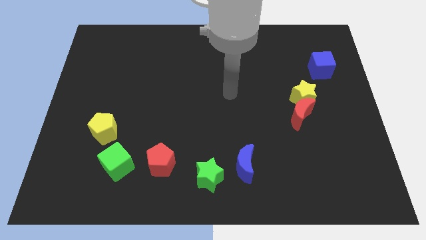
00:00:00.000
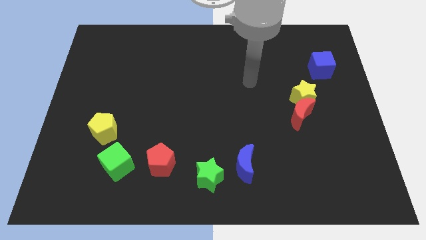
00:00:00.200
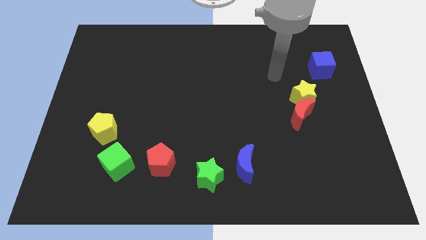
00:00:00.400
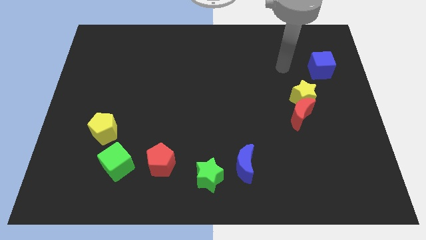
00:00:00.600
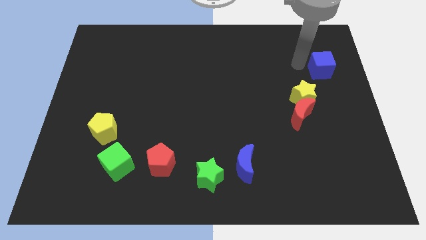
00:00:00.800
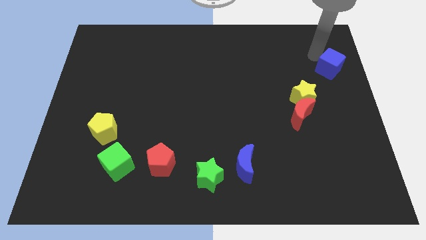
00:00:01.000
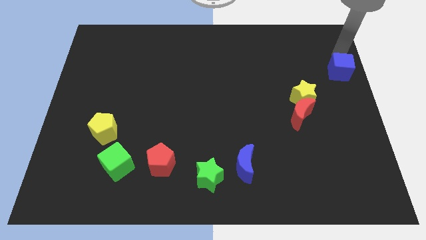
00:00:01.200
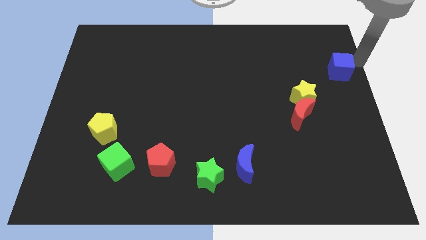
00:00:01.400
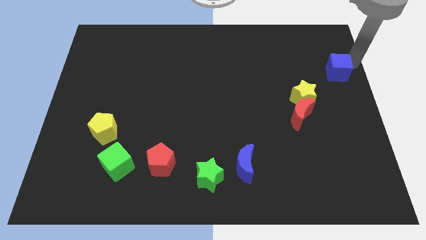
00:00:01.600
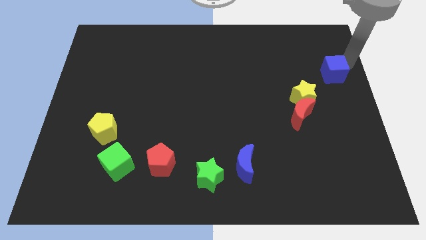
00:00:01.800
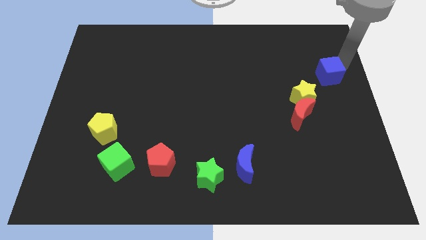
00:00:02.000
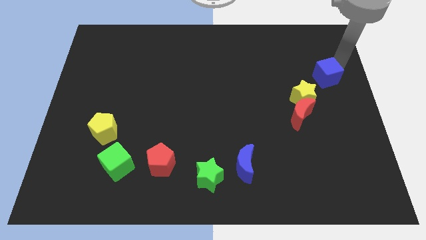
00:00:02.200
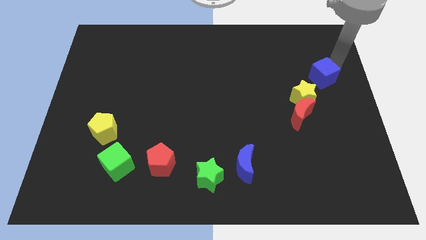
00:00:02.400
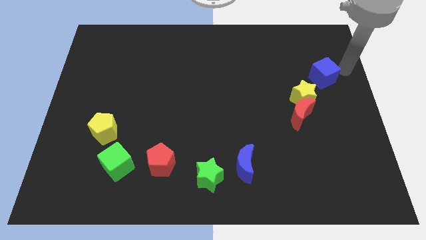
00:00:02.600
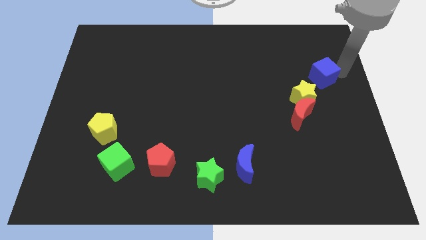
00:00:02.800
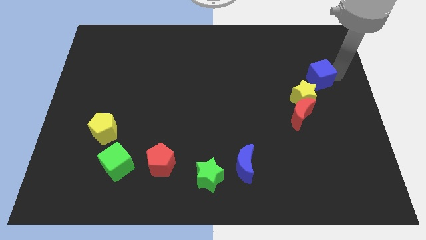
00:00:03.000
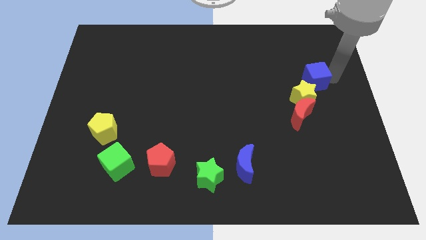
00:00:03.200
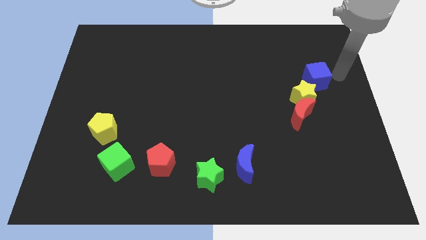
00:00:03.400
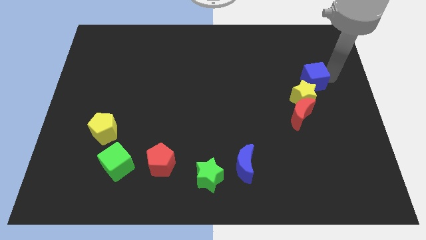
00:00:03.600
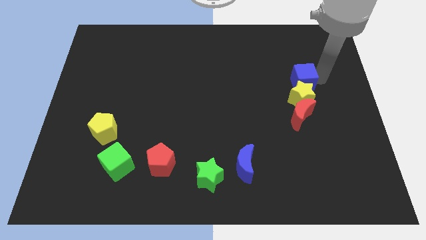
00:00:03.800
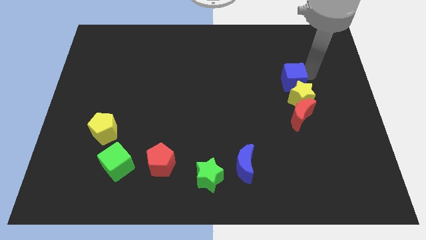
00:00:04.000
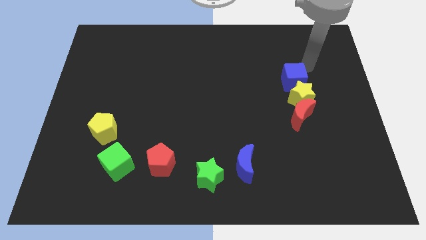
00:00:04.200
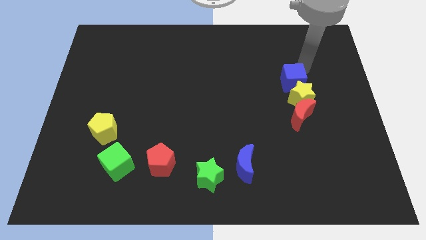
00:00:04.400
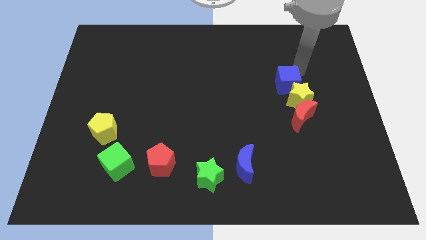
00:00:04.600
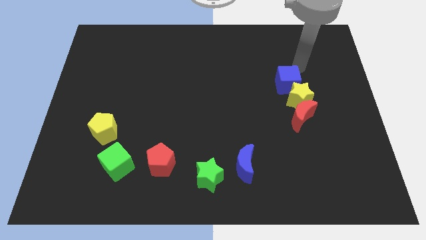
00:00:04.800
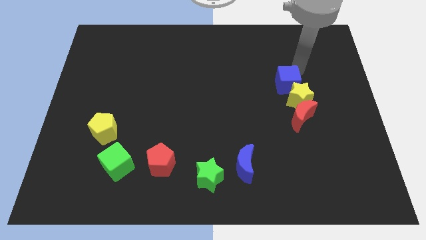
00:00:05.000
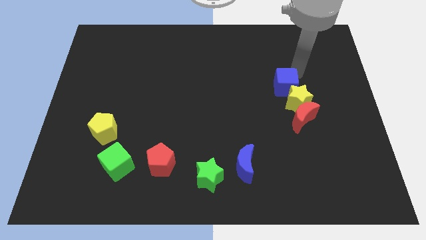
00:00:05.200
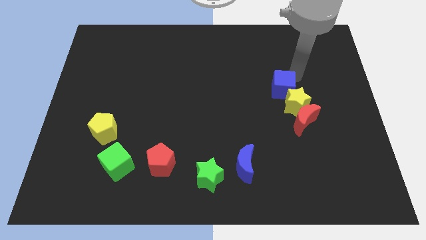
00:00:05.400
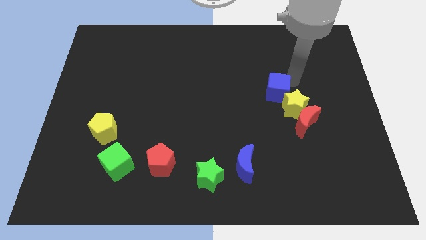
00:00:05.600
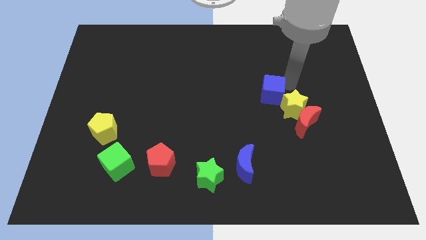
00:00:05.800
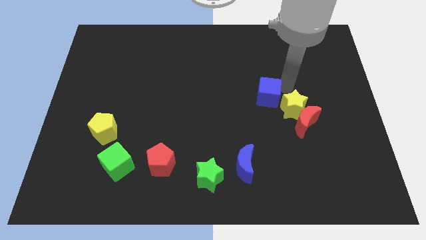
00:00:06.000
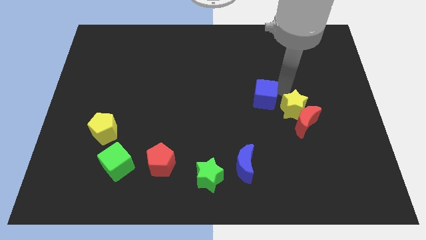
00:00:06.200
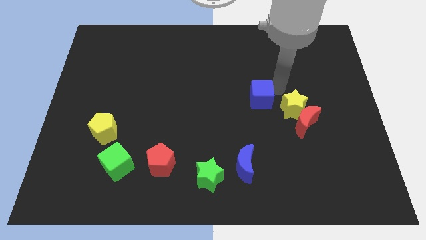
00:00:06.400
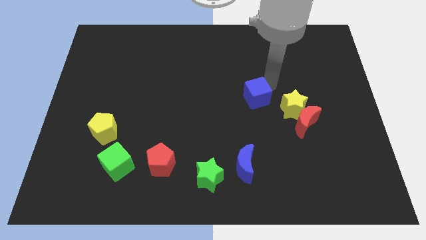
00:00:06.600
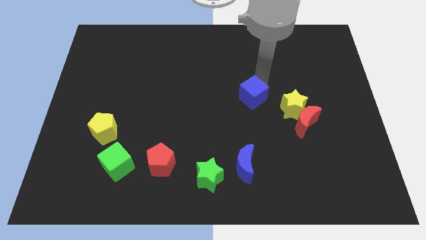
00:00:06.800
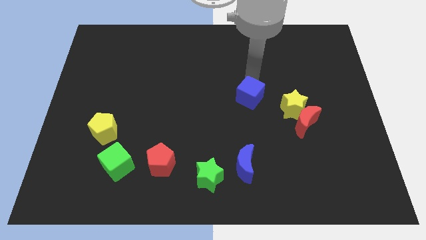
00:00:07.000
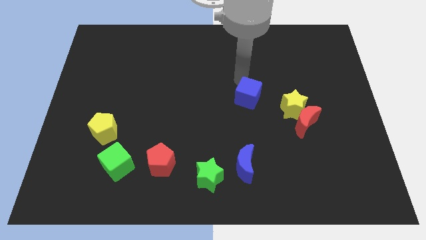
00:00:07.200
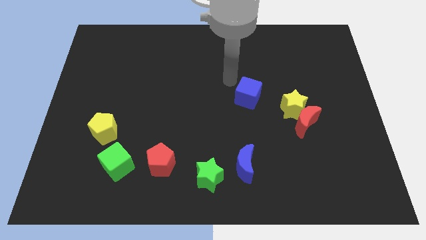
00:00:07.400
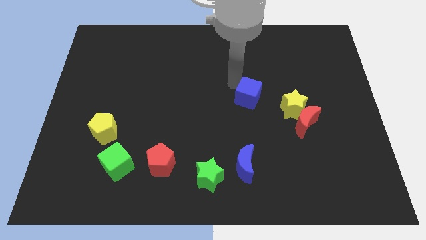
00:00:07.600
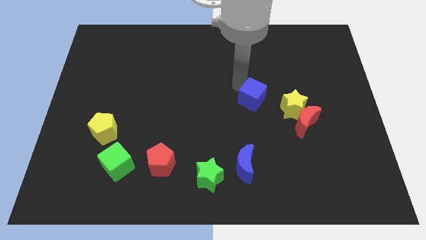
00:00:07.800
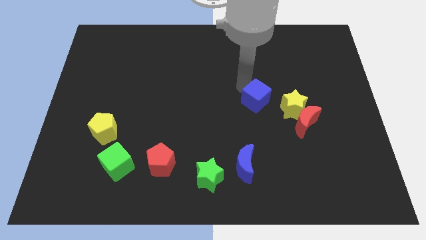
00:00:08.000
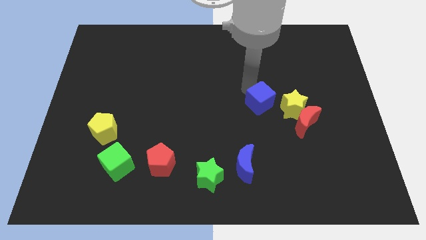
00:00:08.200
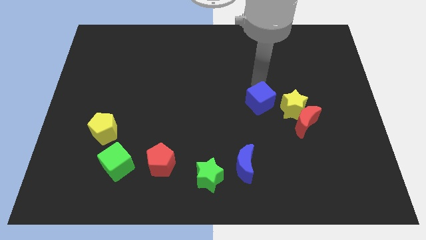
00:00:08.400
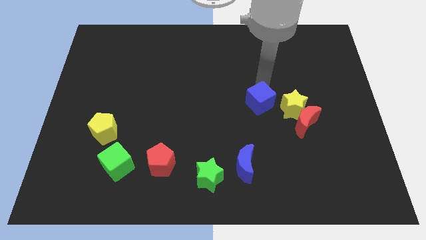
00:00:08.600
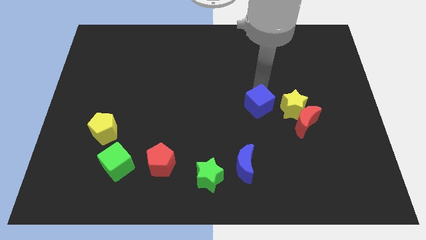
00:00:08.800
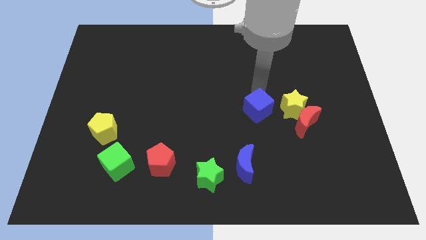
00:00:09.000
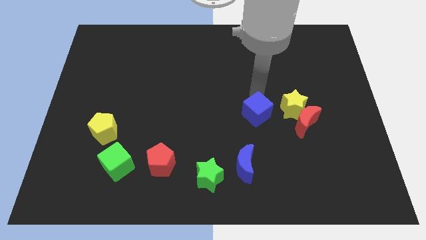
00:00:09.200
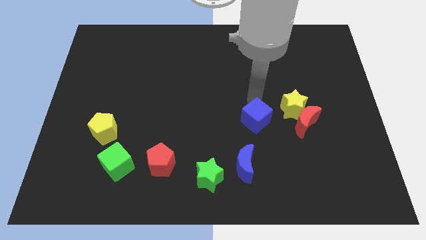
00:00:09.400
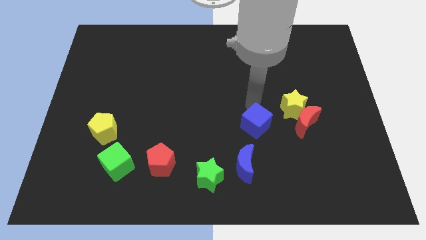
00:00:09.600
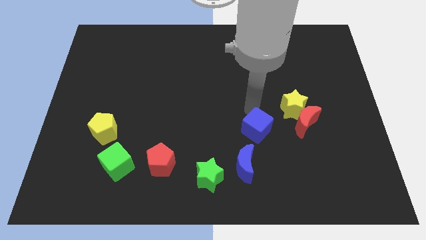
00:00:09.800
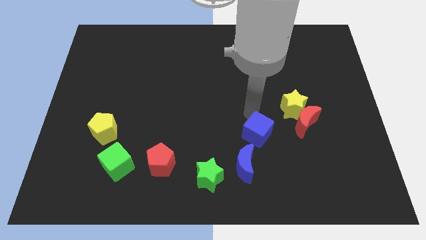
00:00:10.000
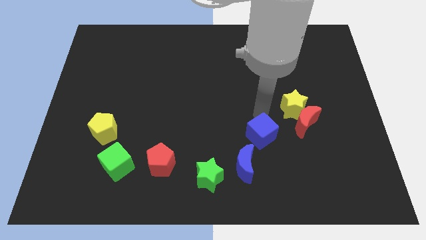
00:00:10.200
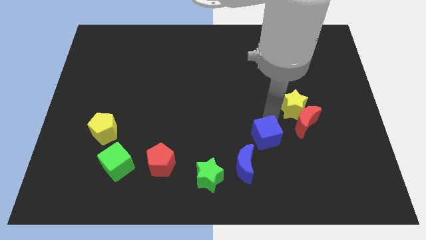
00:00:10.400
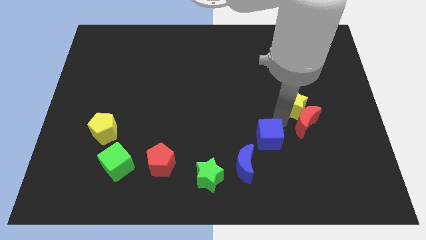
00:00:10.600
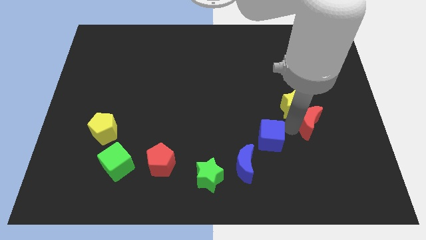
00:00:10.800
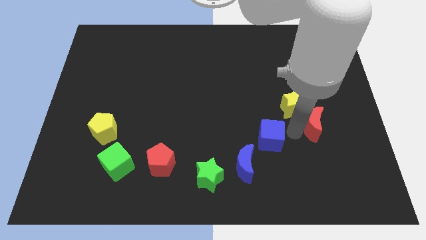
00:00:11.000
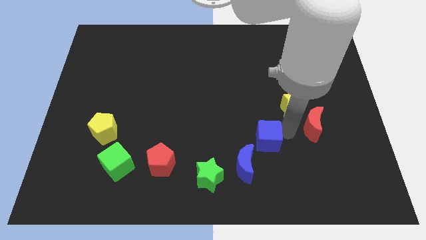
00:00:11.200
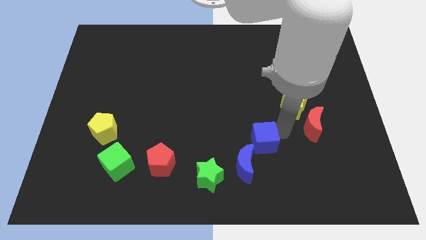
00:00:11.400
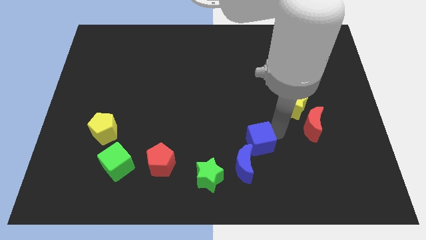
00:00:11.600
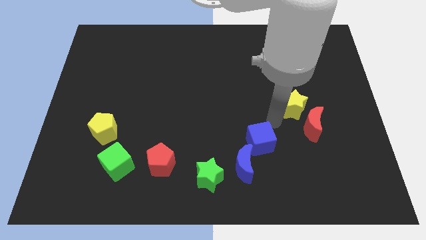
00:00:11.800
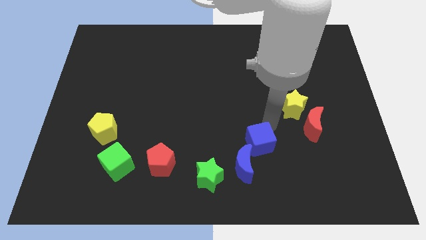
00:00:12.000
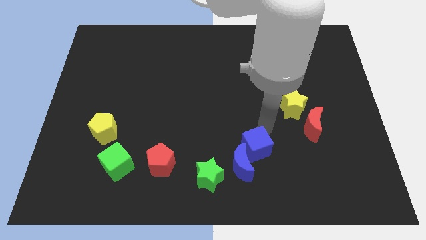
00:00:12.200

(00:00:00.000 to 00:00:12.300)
push the blue cube to the blue moon
